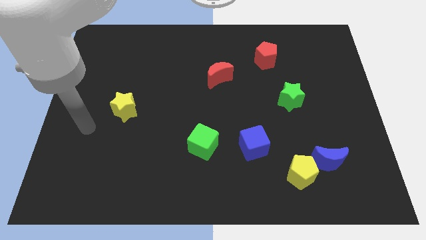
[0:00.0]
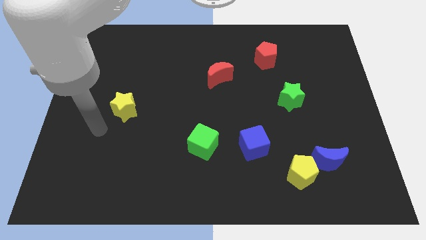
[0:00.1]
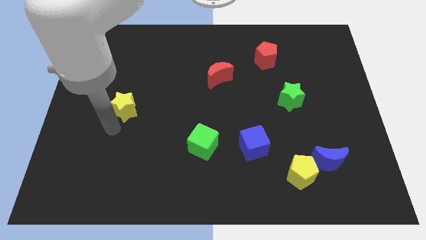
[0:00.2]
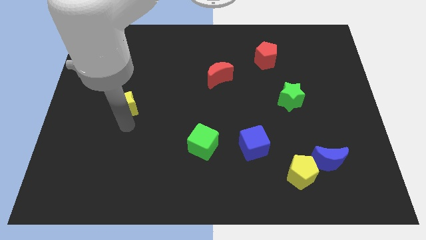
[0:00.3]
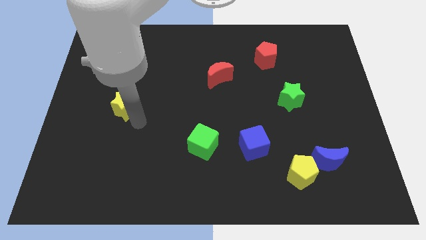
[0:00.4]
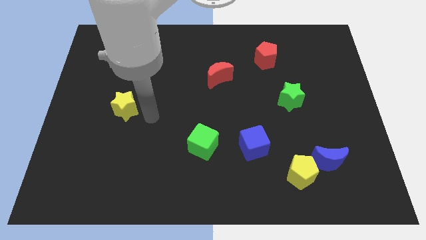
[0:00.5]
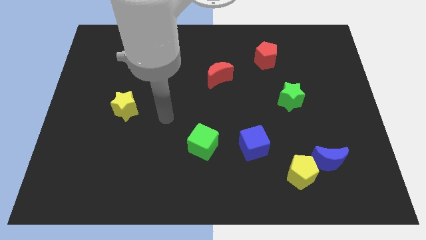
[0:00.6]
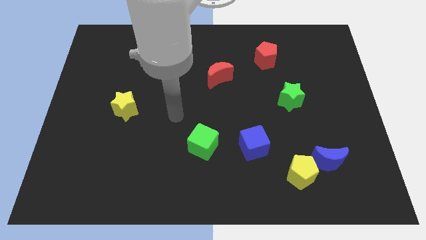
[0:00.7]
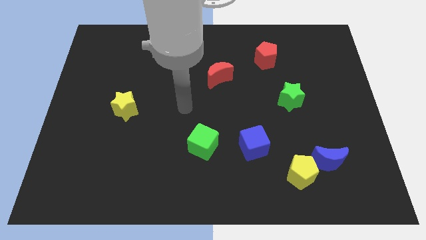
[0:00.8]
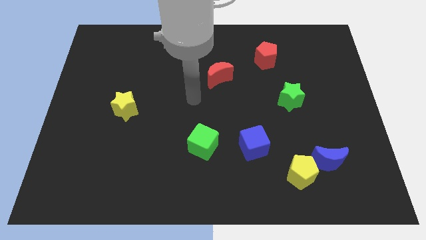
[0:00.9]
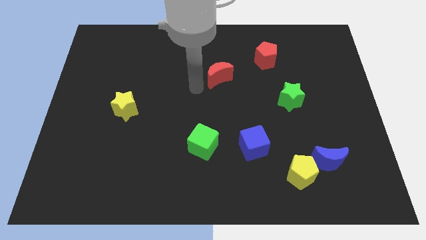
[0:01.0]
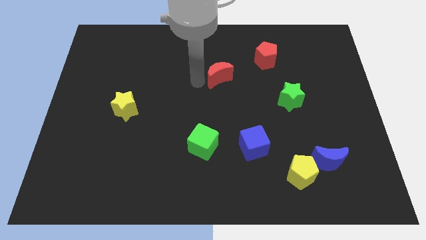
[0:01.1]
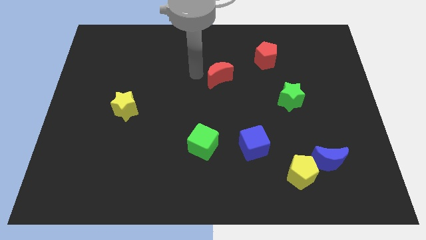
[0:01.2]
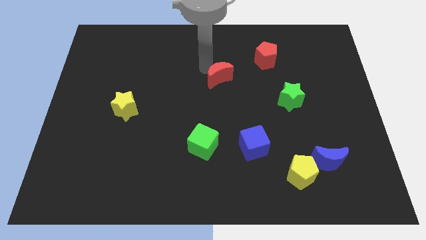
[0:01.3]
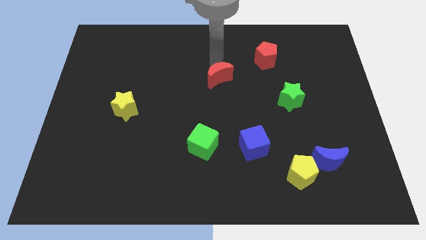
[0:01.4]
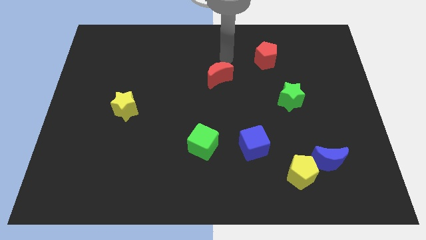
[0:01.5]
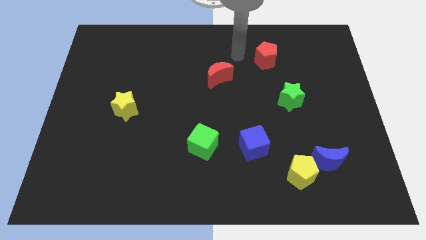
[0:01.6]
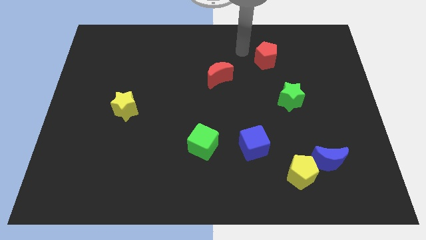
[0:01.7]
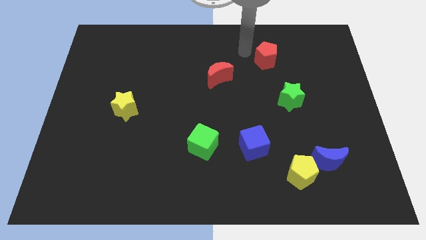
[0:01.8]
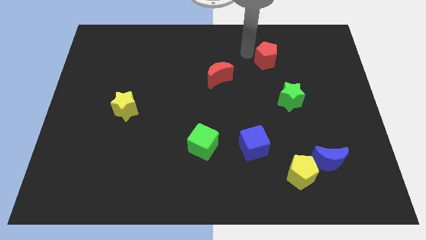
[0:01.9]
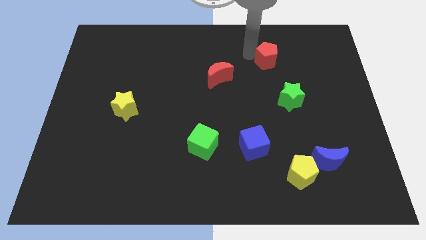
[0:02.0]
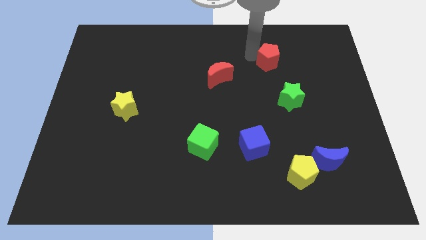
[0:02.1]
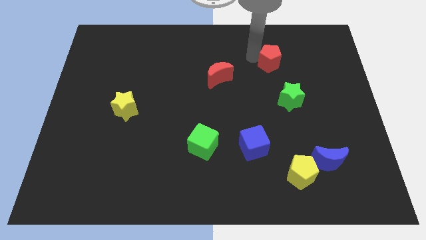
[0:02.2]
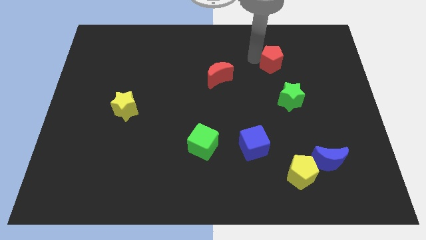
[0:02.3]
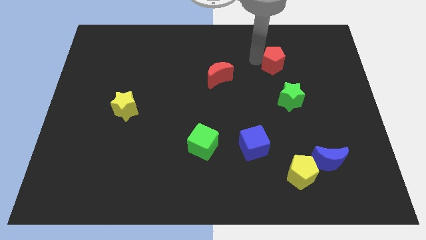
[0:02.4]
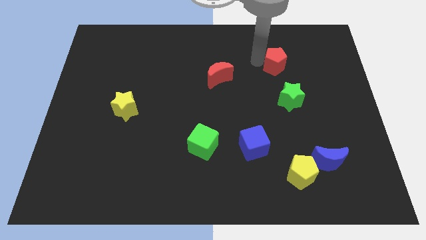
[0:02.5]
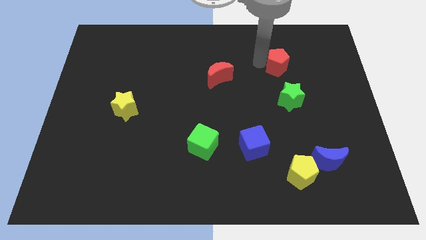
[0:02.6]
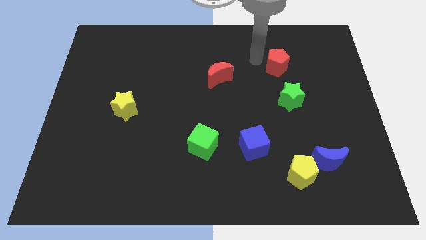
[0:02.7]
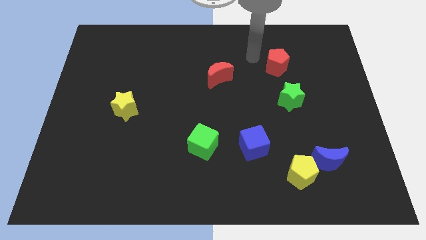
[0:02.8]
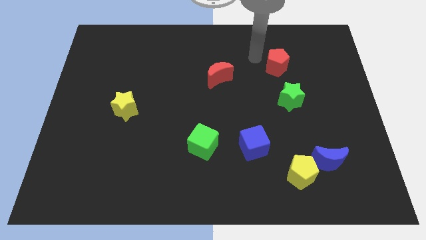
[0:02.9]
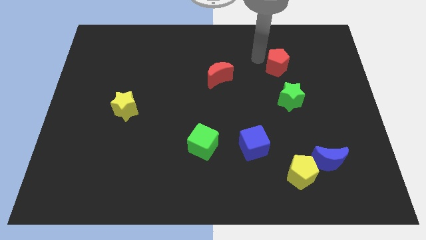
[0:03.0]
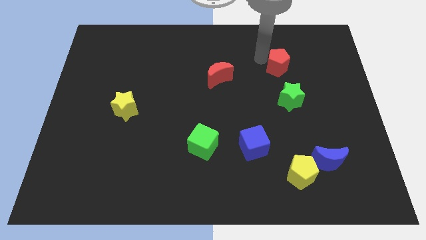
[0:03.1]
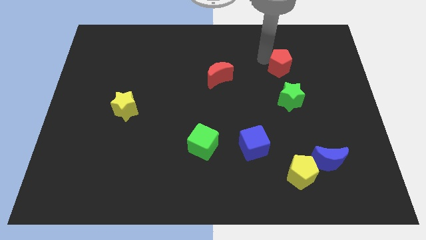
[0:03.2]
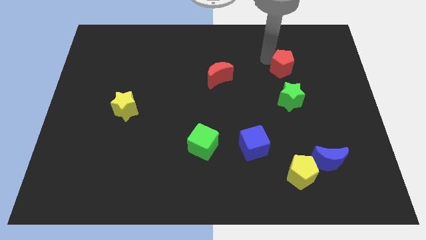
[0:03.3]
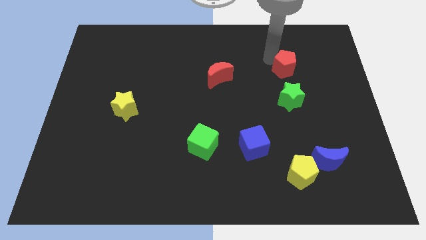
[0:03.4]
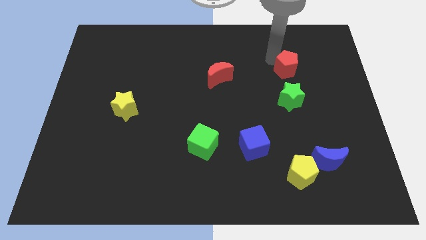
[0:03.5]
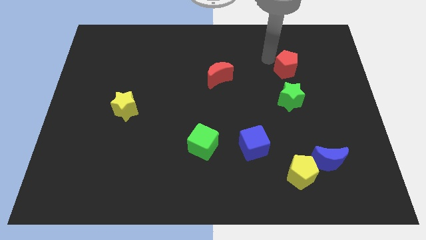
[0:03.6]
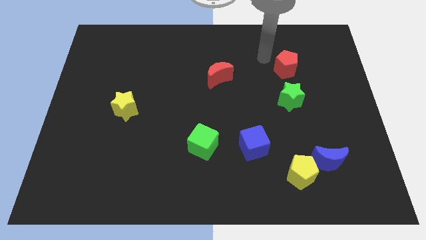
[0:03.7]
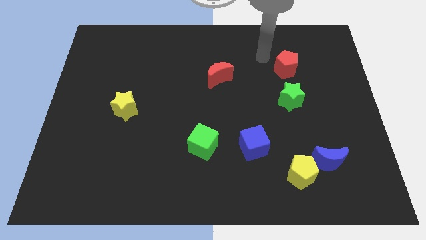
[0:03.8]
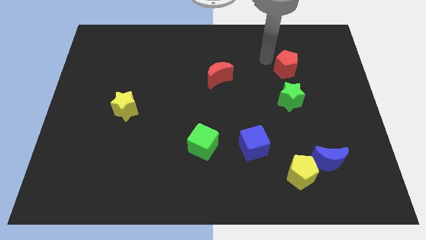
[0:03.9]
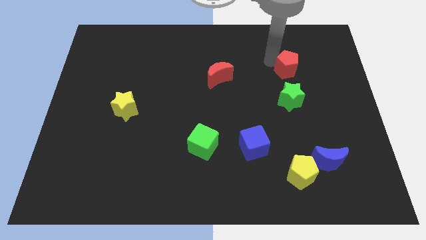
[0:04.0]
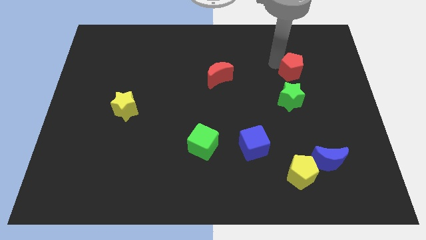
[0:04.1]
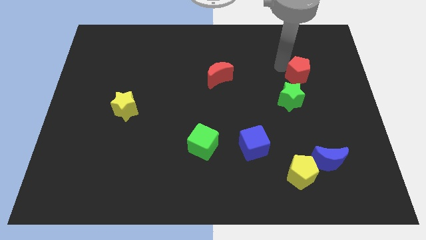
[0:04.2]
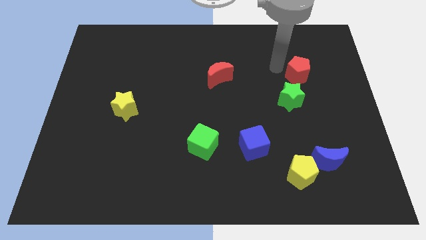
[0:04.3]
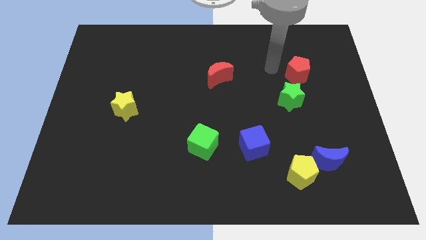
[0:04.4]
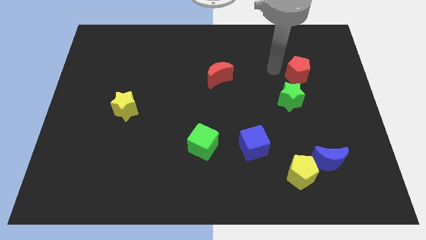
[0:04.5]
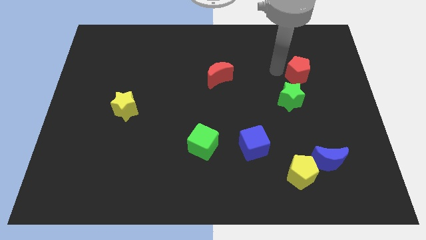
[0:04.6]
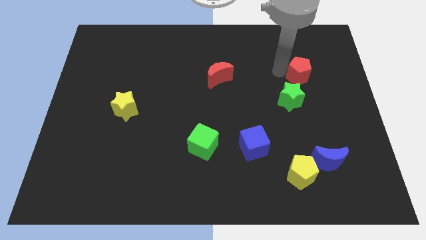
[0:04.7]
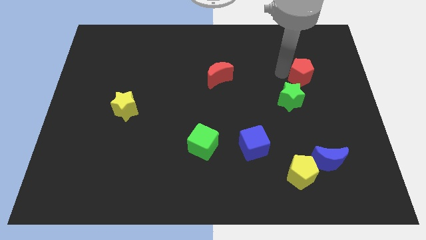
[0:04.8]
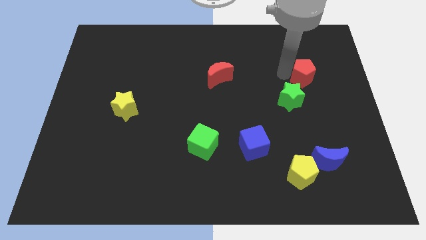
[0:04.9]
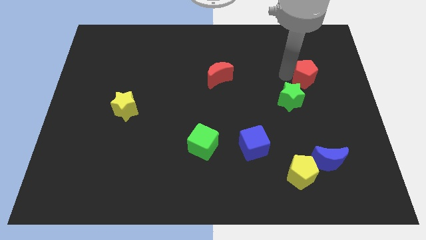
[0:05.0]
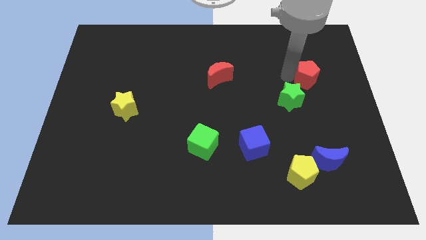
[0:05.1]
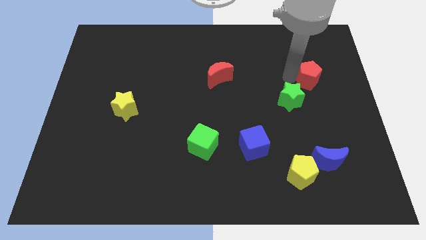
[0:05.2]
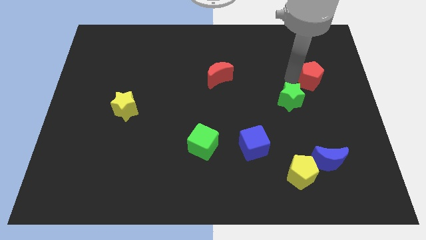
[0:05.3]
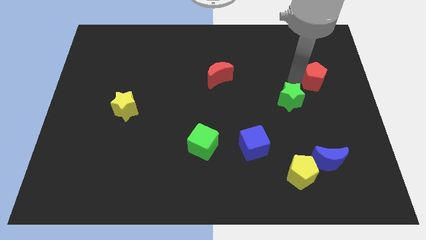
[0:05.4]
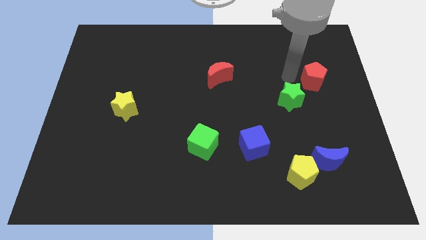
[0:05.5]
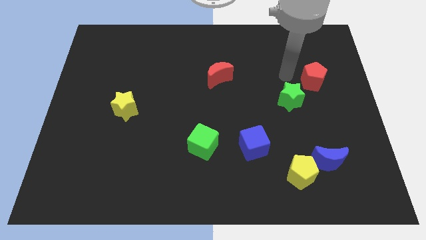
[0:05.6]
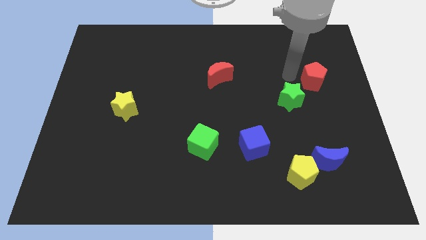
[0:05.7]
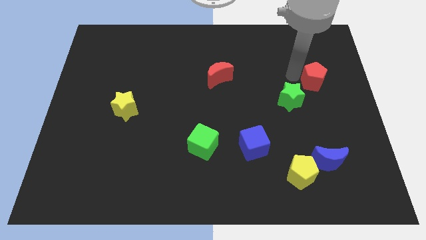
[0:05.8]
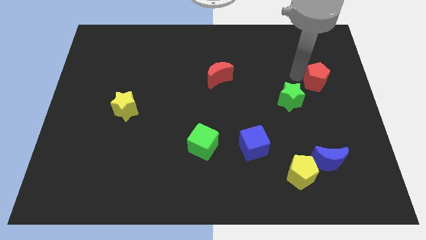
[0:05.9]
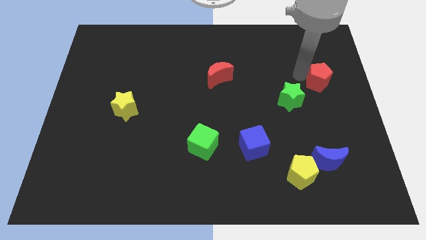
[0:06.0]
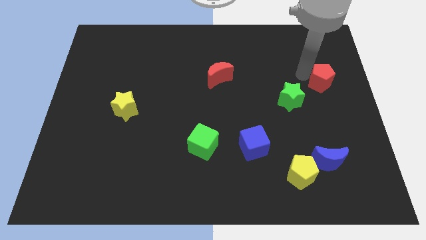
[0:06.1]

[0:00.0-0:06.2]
put the red pentagon to the right side of the board

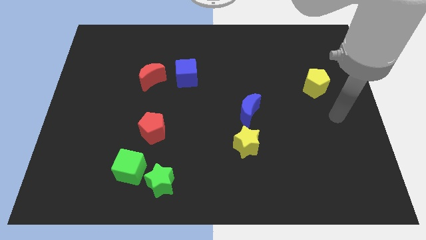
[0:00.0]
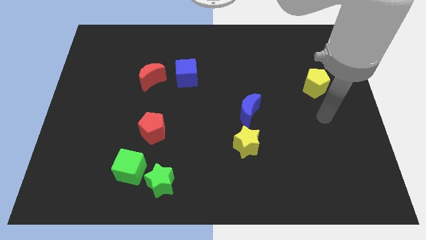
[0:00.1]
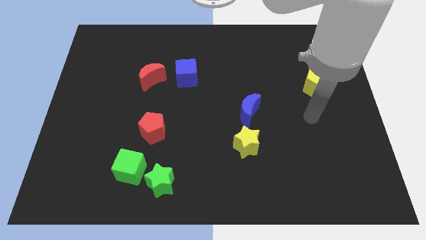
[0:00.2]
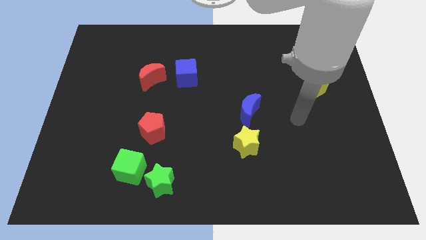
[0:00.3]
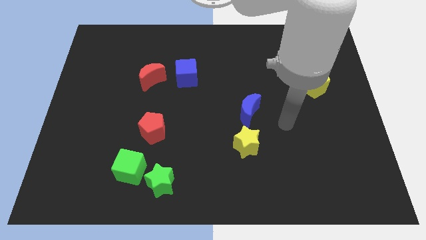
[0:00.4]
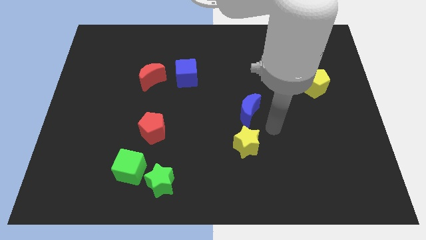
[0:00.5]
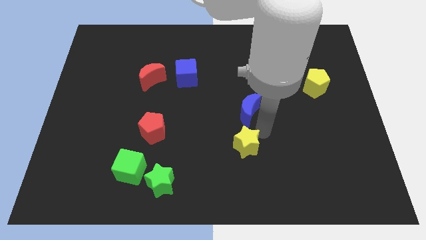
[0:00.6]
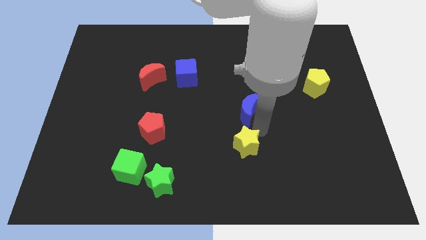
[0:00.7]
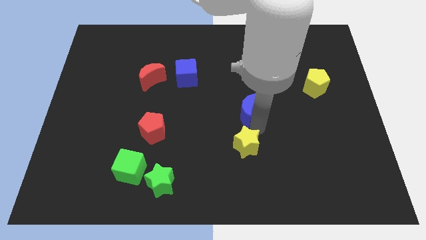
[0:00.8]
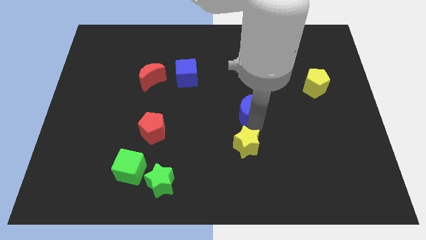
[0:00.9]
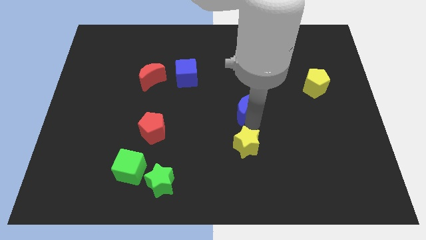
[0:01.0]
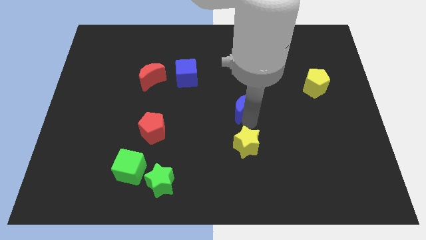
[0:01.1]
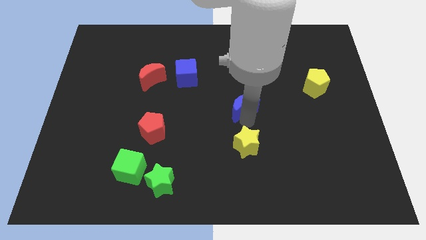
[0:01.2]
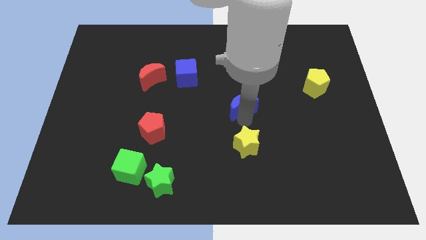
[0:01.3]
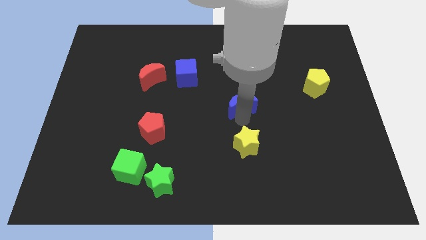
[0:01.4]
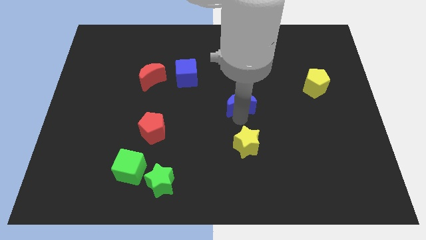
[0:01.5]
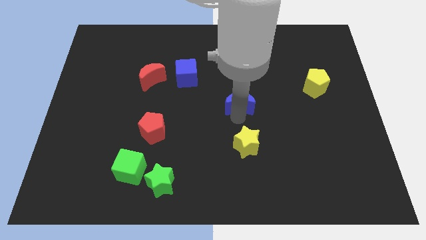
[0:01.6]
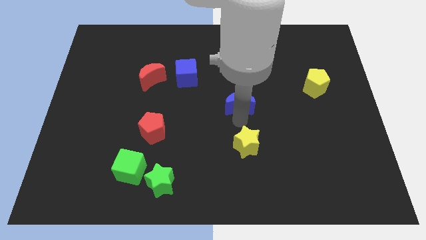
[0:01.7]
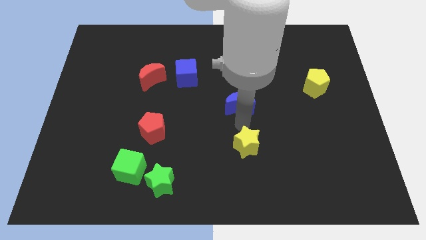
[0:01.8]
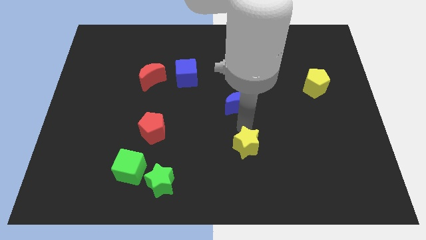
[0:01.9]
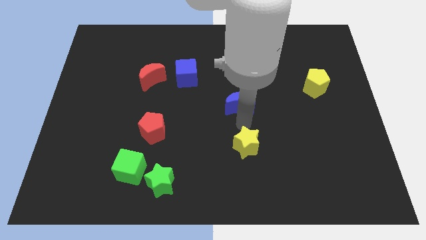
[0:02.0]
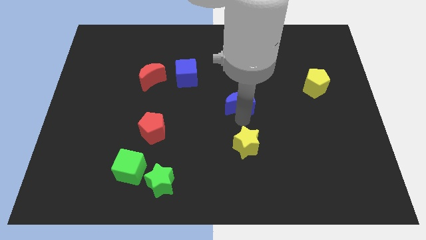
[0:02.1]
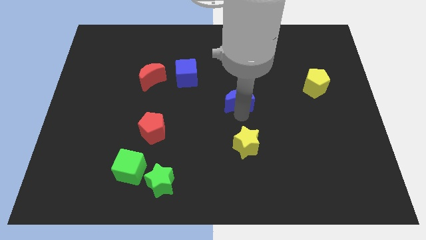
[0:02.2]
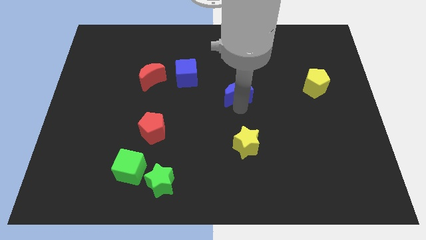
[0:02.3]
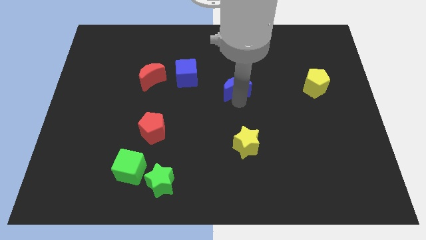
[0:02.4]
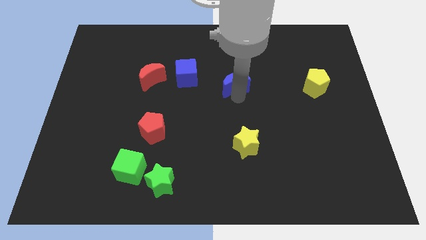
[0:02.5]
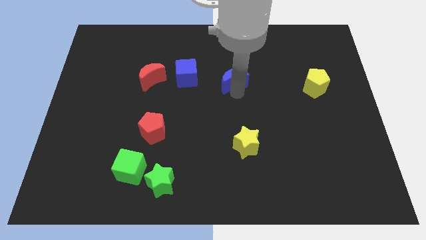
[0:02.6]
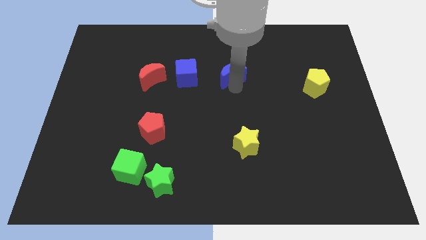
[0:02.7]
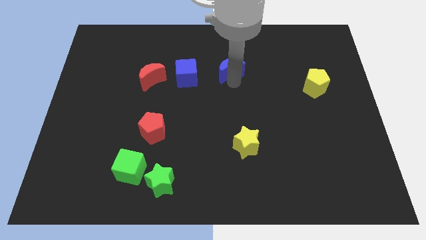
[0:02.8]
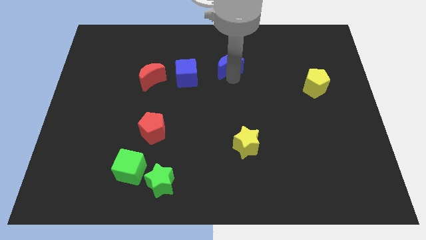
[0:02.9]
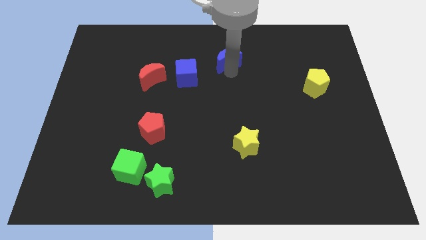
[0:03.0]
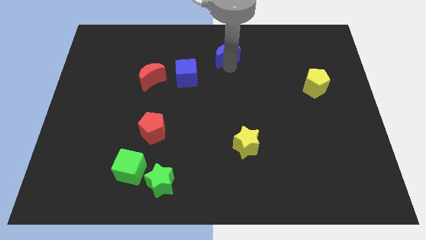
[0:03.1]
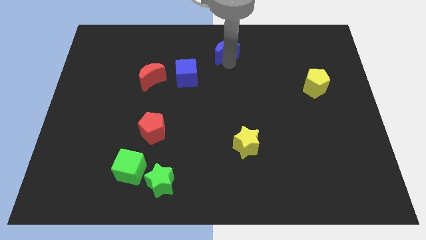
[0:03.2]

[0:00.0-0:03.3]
move the blue moon to the towards your base
